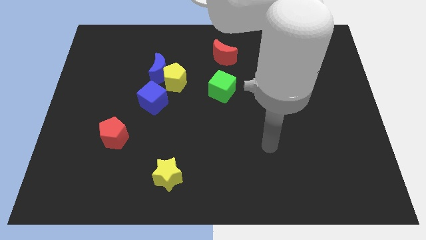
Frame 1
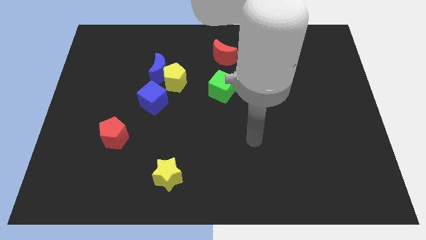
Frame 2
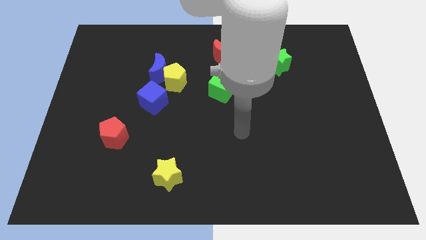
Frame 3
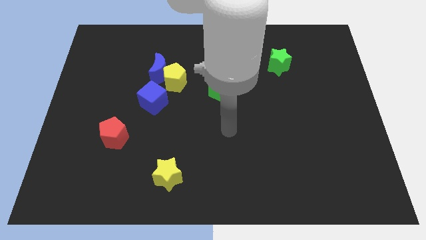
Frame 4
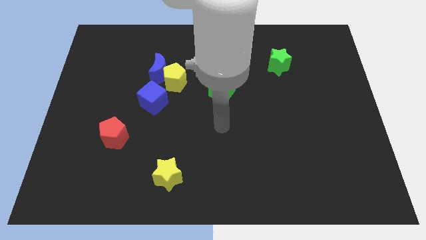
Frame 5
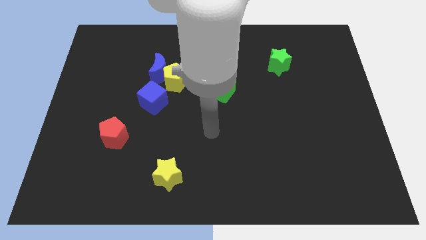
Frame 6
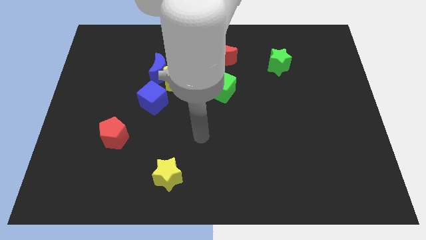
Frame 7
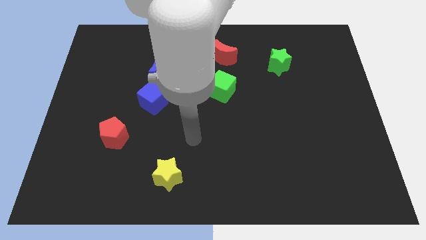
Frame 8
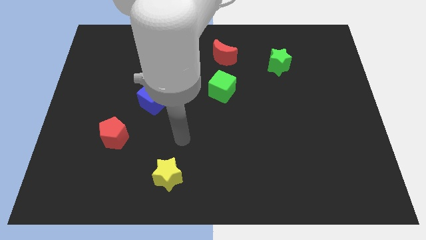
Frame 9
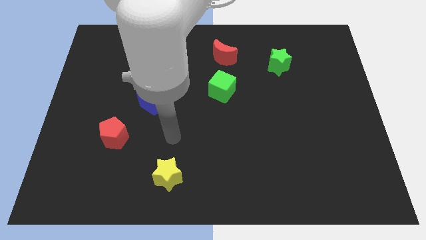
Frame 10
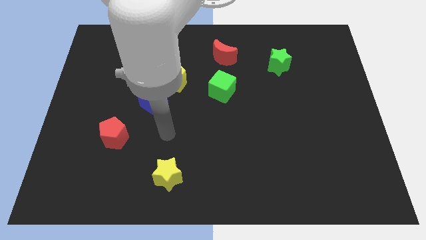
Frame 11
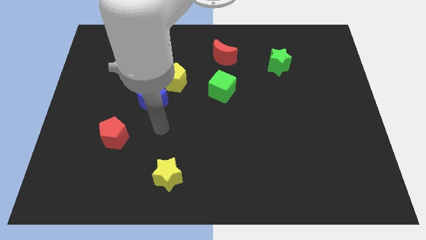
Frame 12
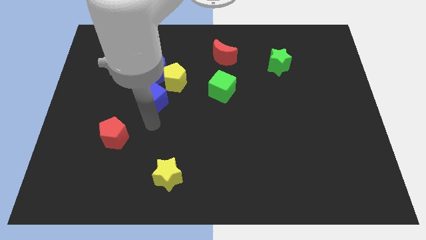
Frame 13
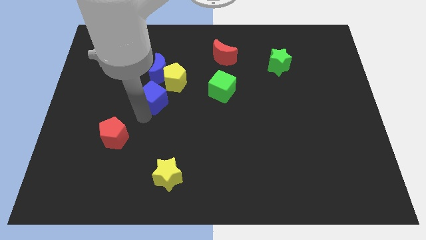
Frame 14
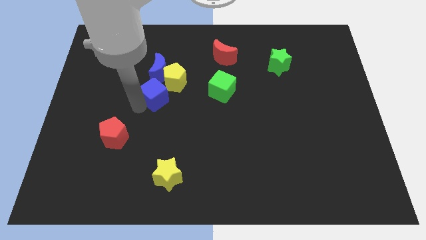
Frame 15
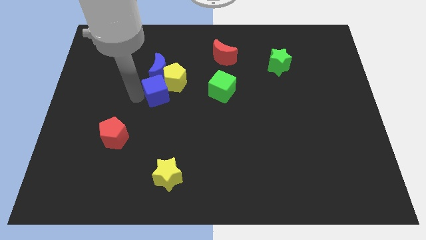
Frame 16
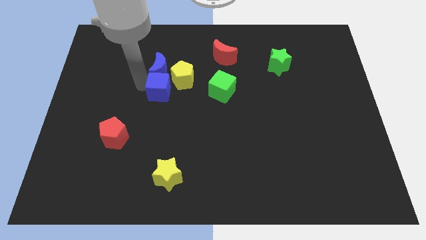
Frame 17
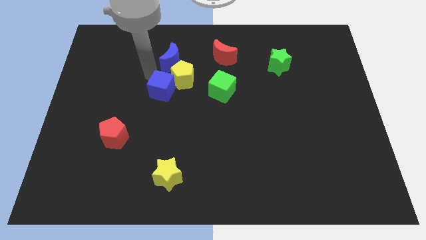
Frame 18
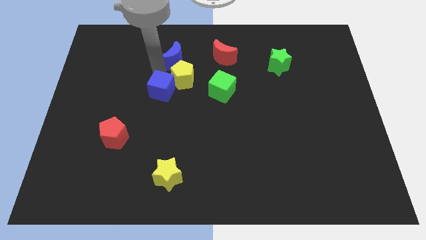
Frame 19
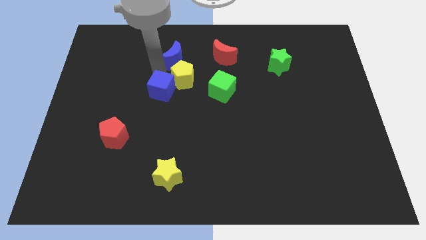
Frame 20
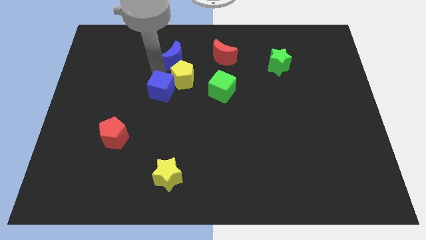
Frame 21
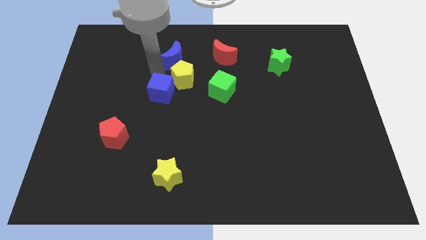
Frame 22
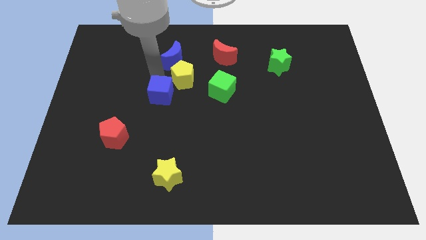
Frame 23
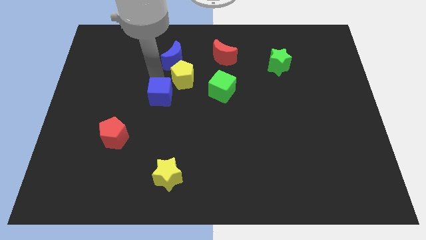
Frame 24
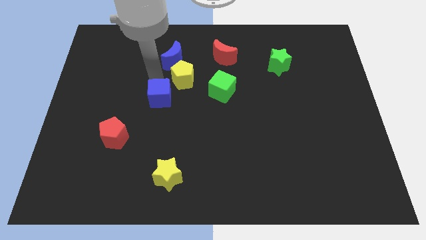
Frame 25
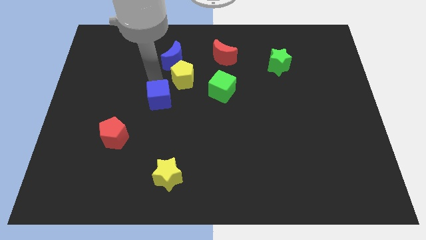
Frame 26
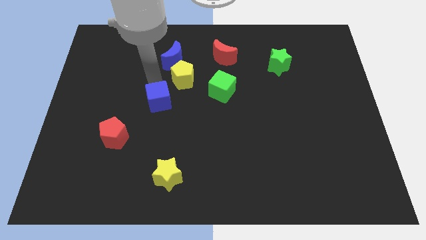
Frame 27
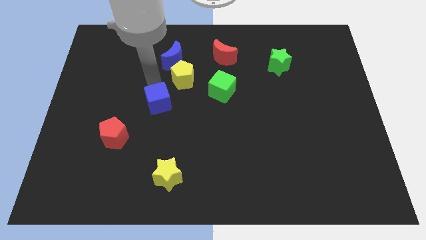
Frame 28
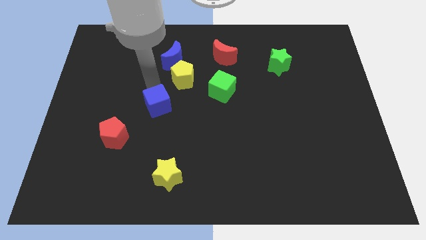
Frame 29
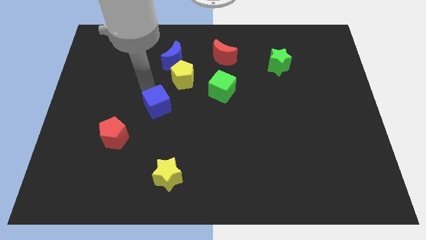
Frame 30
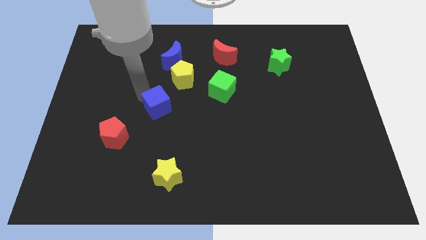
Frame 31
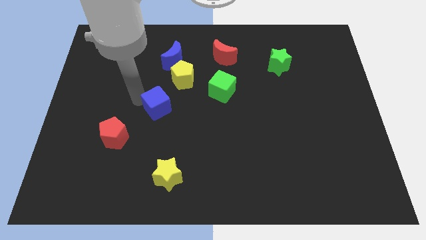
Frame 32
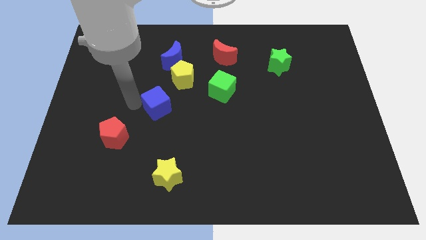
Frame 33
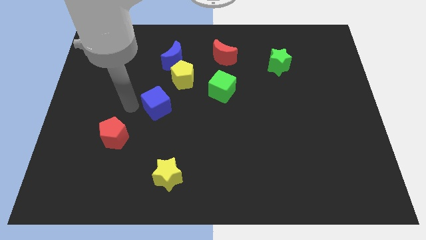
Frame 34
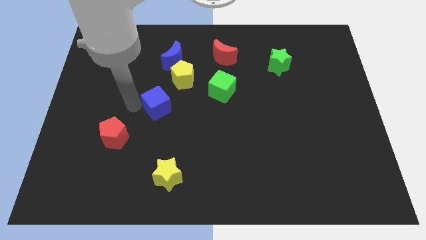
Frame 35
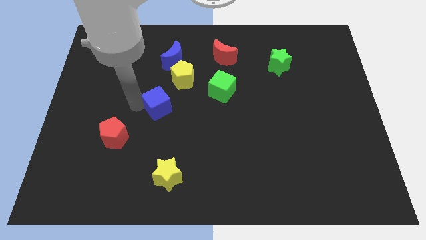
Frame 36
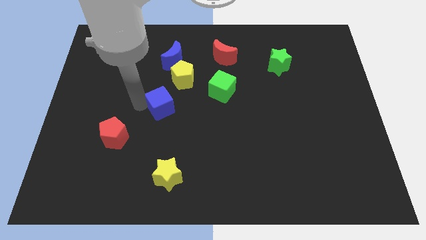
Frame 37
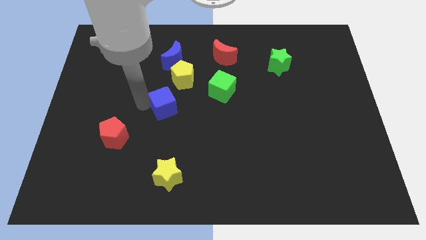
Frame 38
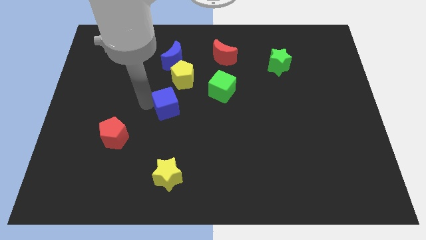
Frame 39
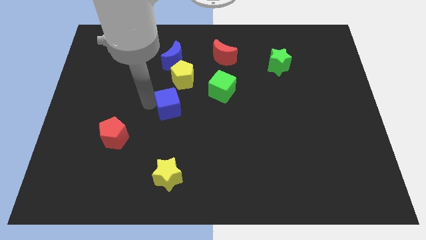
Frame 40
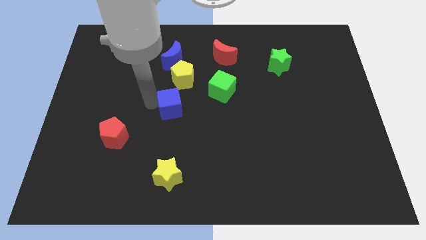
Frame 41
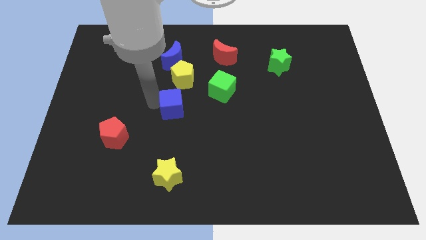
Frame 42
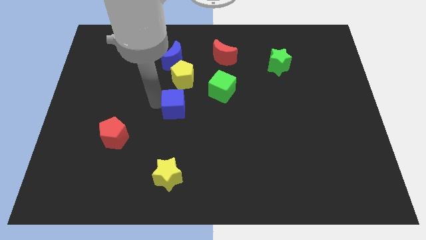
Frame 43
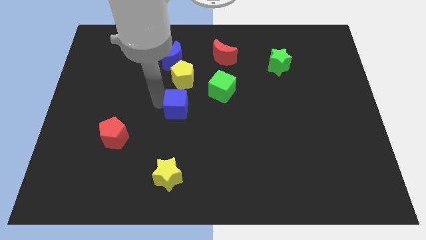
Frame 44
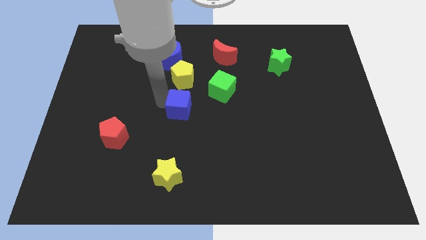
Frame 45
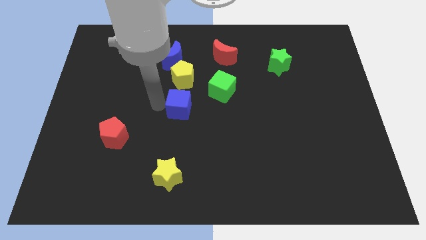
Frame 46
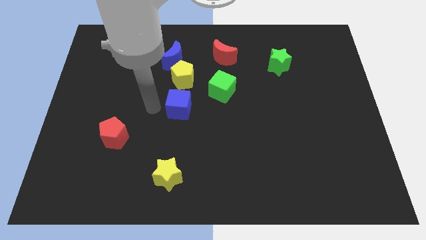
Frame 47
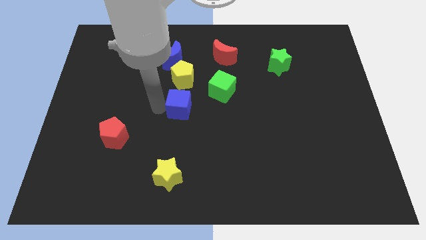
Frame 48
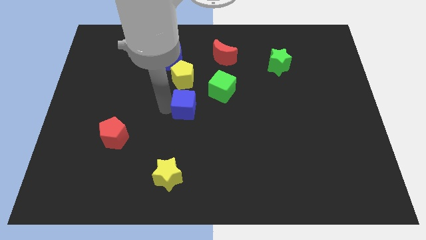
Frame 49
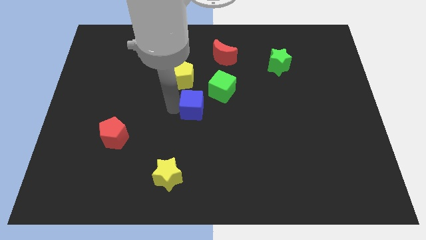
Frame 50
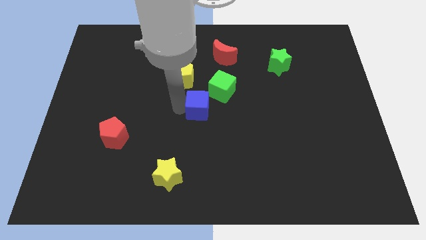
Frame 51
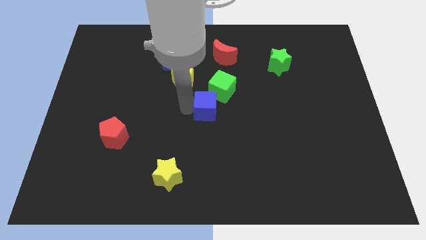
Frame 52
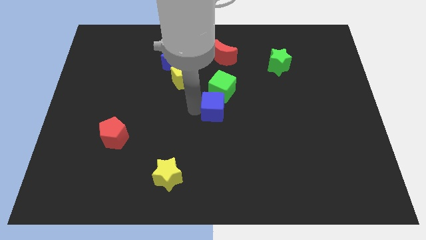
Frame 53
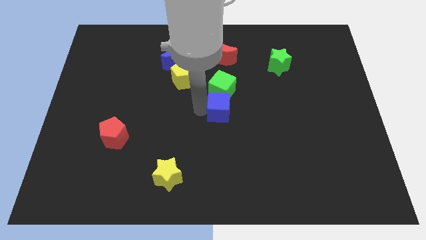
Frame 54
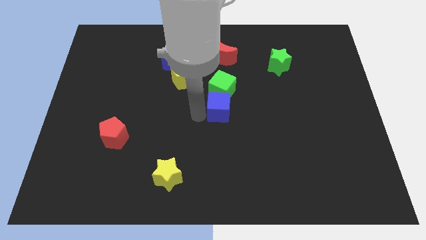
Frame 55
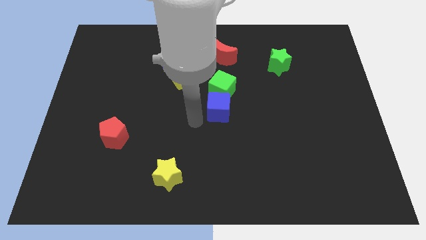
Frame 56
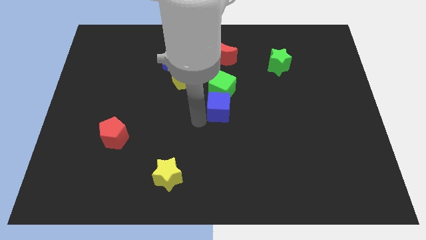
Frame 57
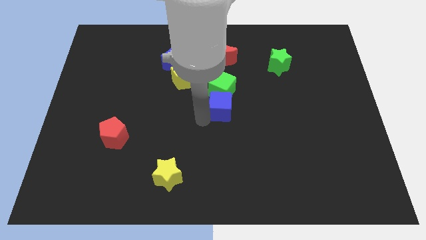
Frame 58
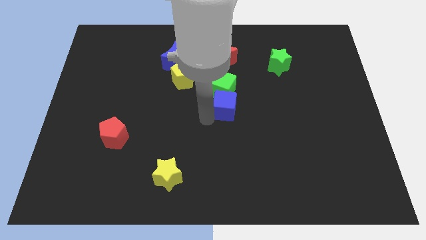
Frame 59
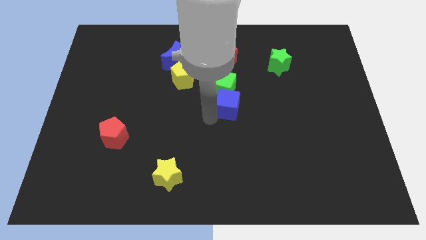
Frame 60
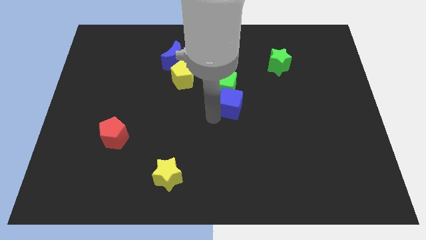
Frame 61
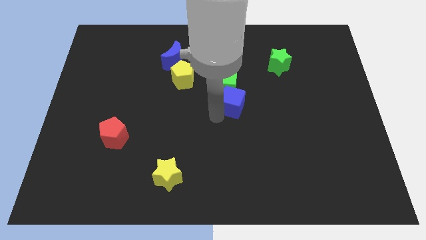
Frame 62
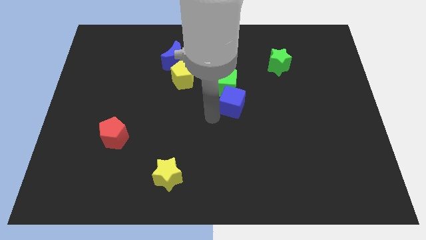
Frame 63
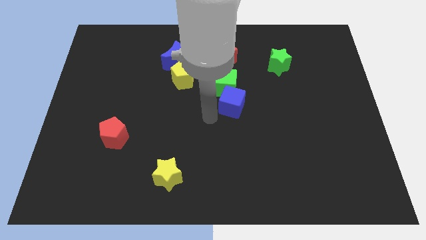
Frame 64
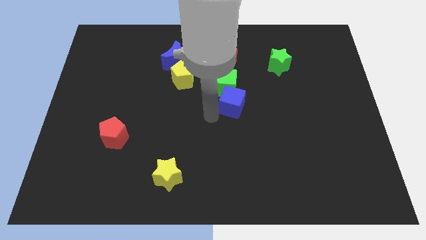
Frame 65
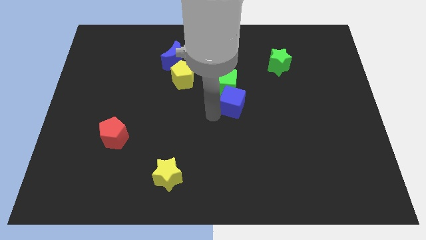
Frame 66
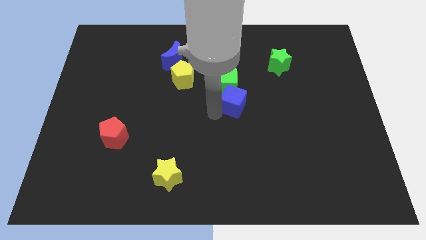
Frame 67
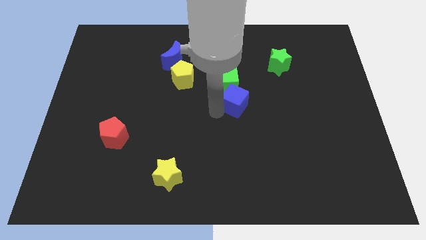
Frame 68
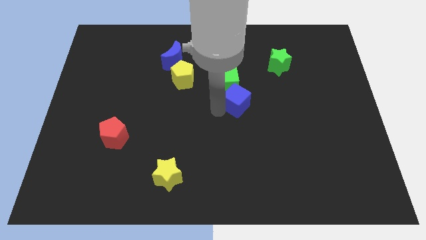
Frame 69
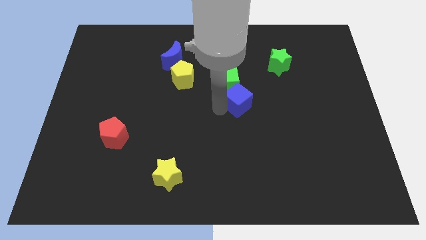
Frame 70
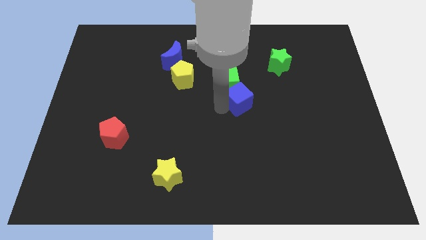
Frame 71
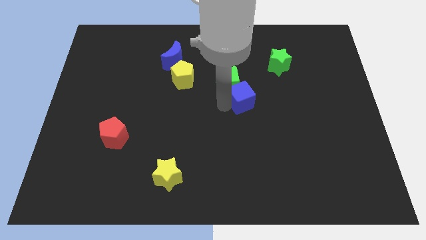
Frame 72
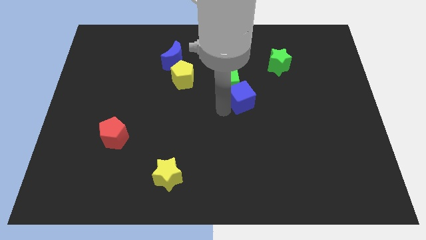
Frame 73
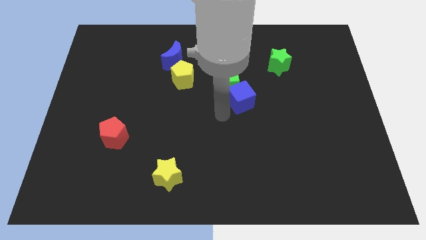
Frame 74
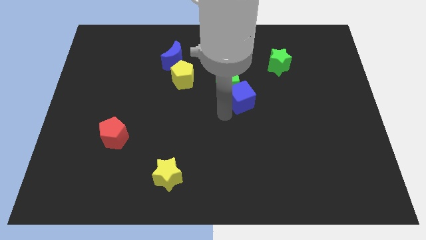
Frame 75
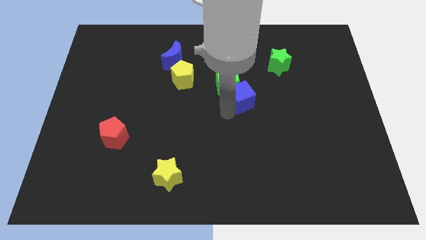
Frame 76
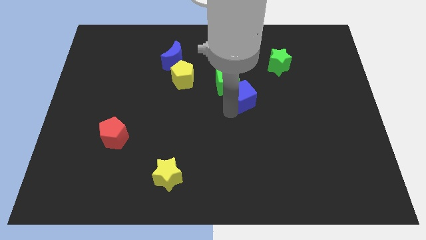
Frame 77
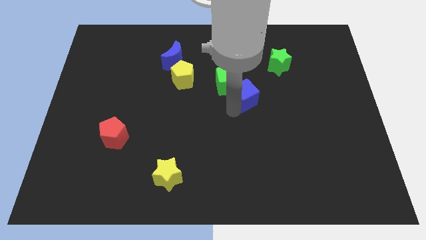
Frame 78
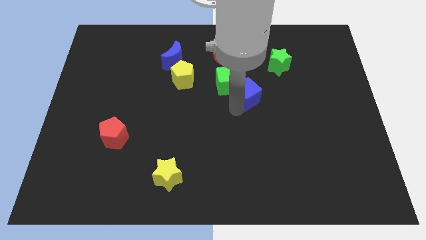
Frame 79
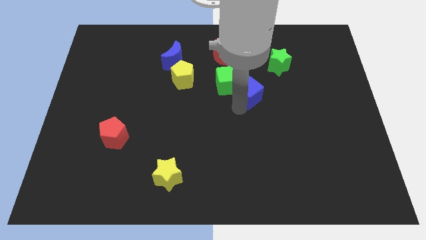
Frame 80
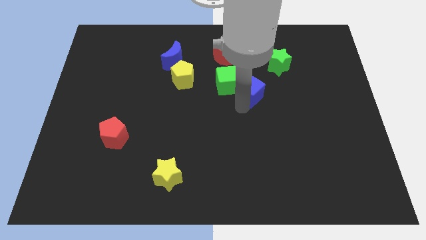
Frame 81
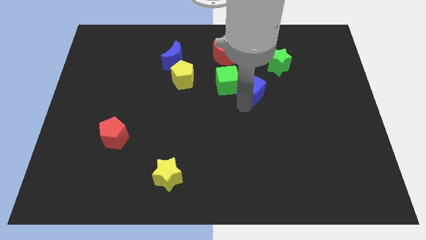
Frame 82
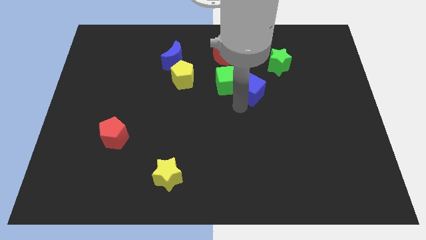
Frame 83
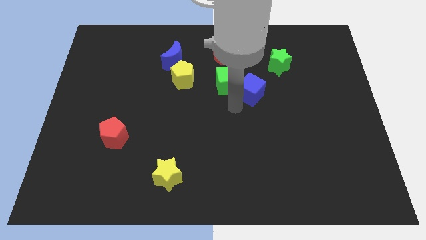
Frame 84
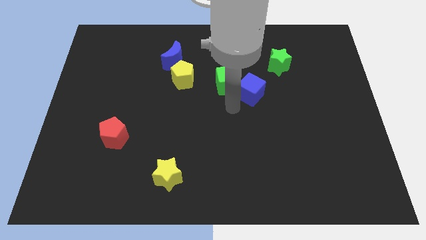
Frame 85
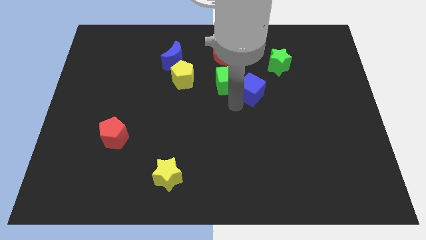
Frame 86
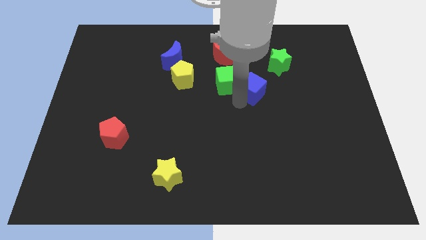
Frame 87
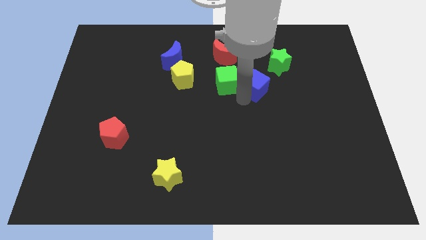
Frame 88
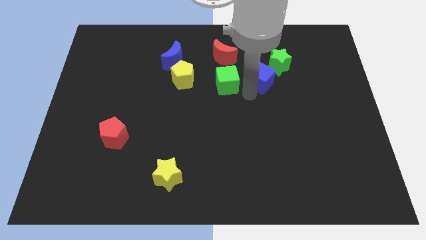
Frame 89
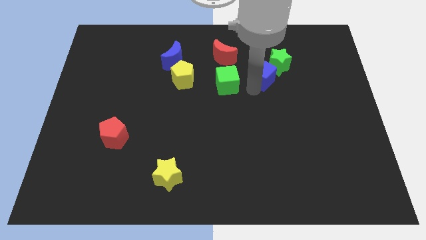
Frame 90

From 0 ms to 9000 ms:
move the blue cube towards the green star
